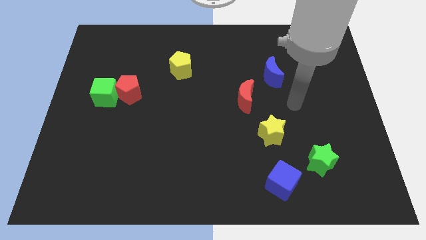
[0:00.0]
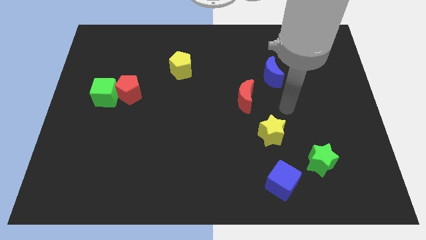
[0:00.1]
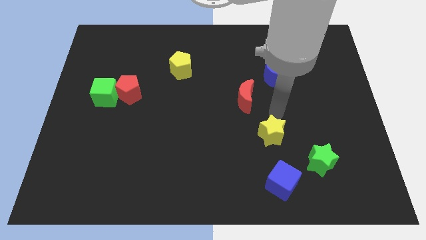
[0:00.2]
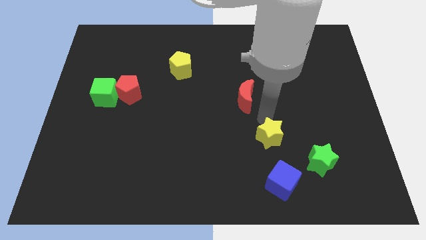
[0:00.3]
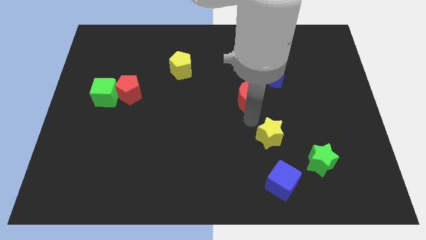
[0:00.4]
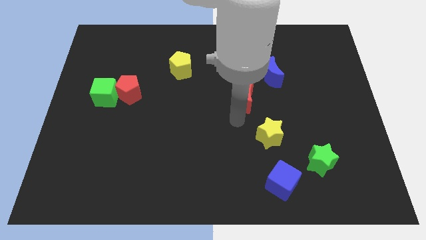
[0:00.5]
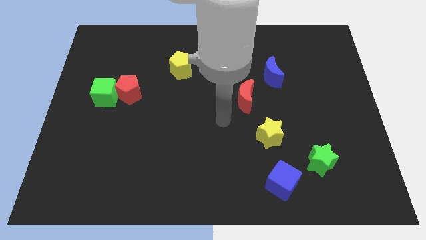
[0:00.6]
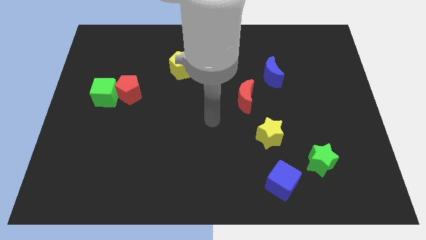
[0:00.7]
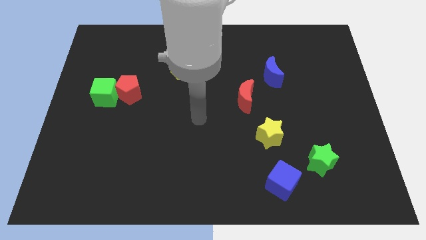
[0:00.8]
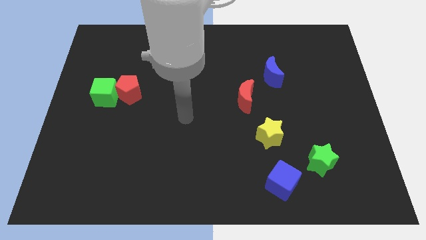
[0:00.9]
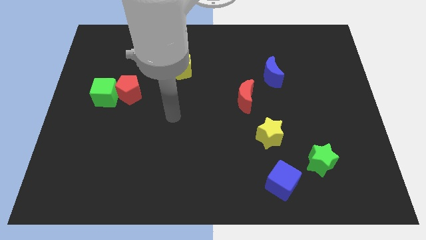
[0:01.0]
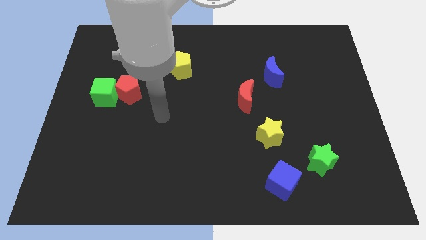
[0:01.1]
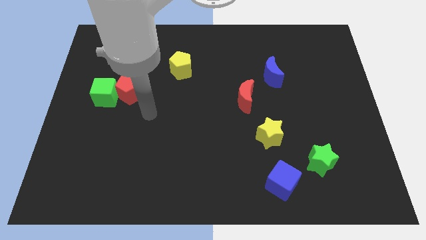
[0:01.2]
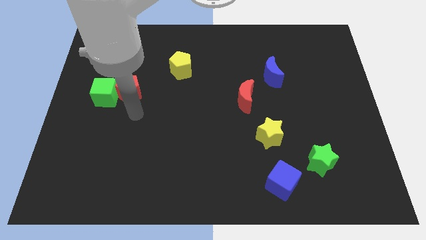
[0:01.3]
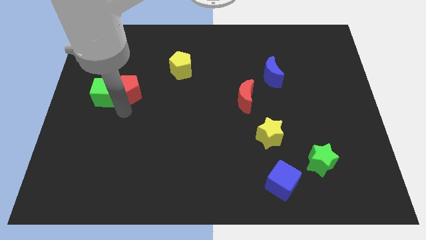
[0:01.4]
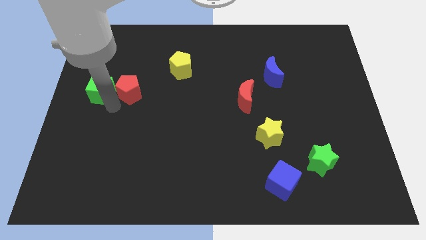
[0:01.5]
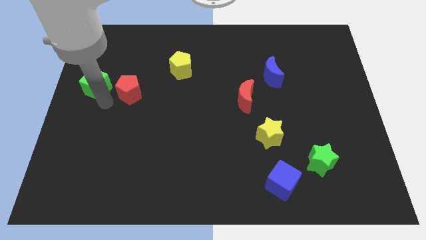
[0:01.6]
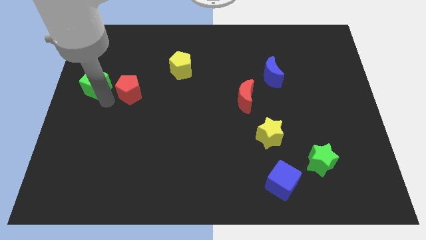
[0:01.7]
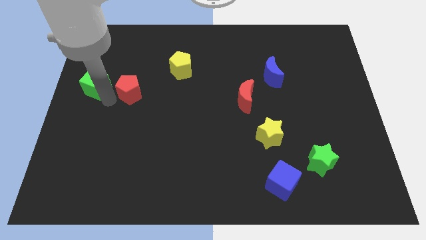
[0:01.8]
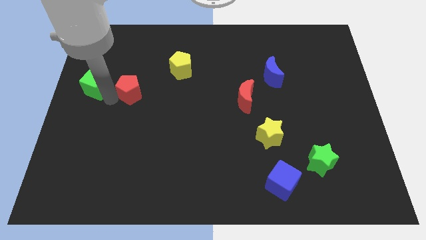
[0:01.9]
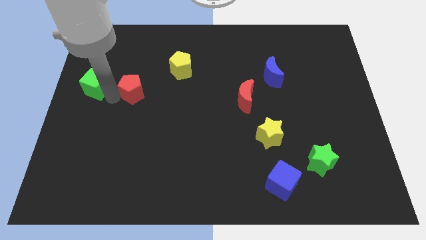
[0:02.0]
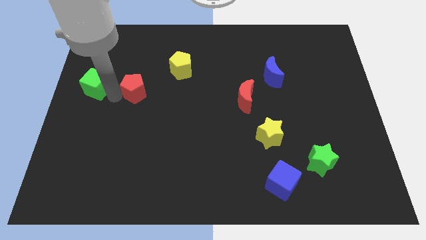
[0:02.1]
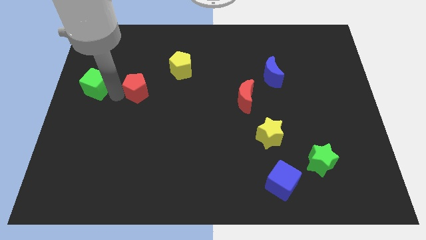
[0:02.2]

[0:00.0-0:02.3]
pull the red pentagon apart from the green cube

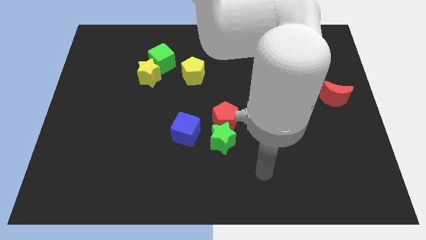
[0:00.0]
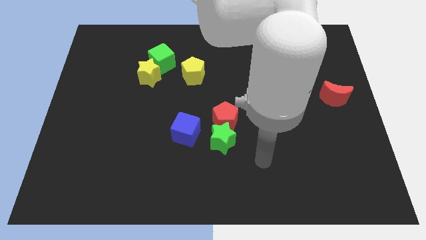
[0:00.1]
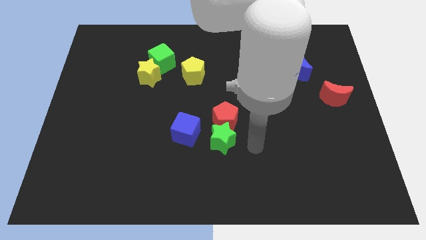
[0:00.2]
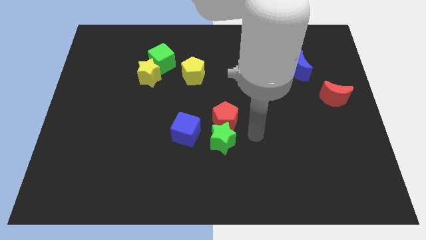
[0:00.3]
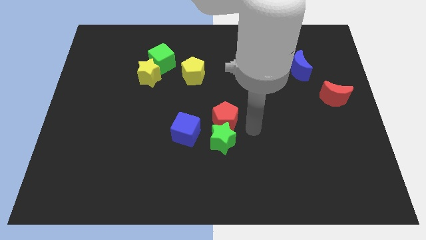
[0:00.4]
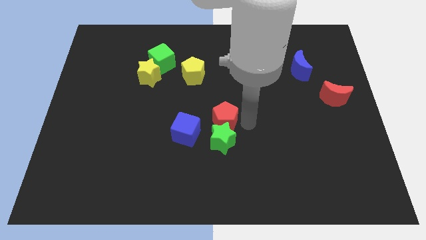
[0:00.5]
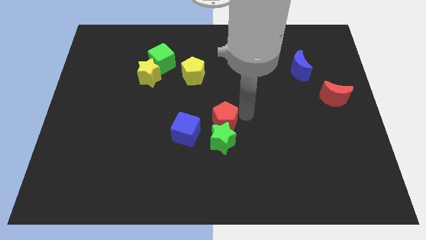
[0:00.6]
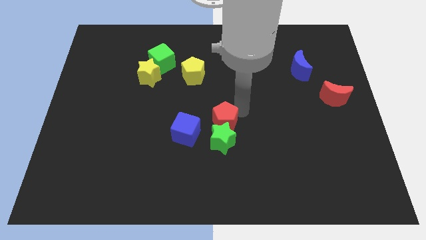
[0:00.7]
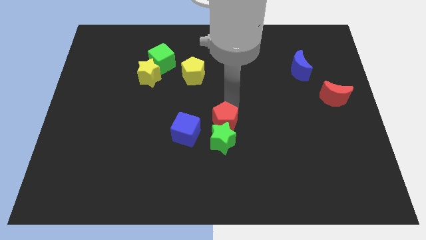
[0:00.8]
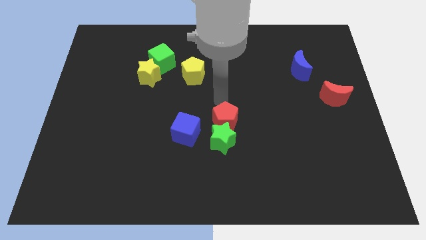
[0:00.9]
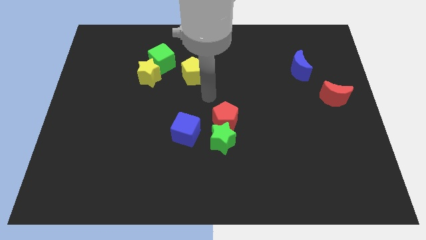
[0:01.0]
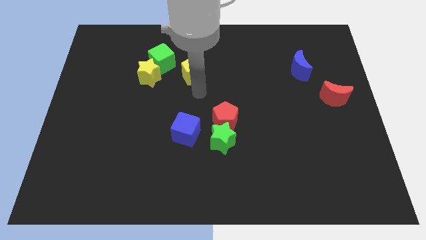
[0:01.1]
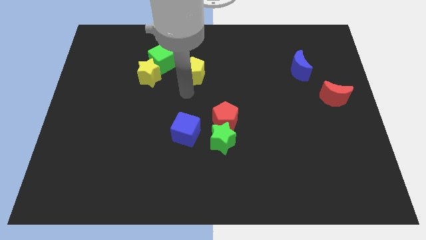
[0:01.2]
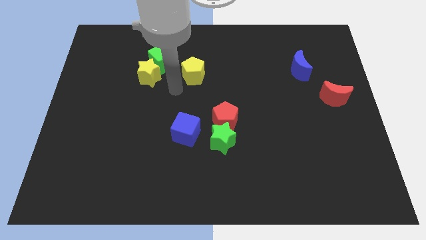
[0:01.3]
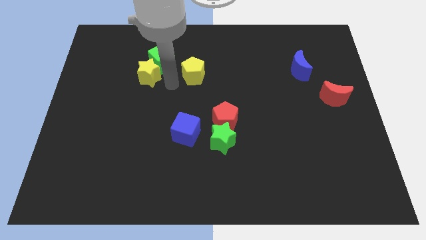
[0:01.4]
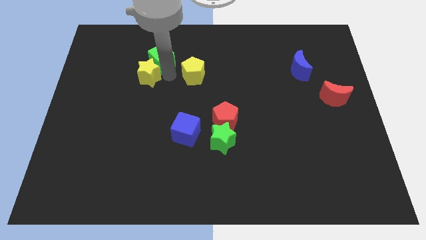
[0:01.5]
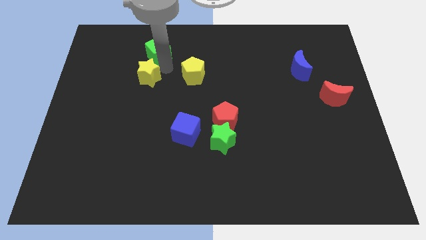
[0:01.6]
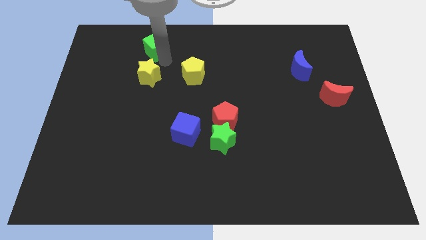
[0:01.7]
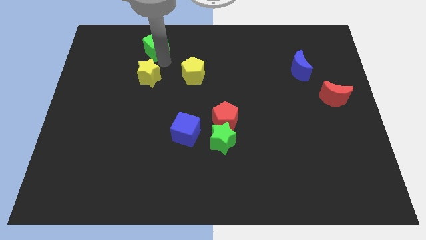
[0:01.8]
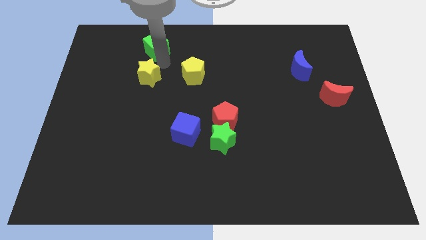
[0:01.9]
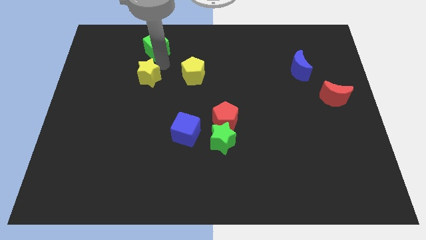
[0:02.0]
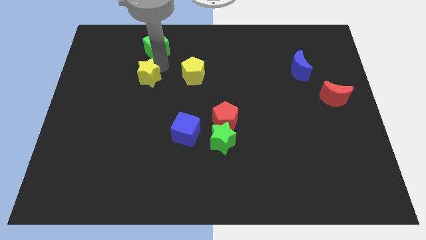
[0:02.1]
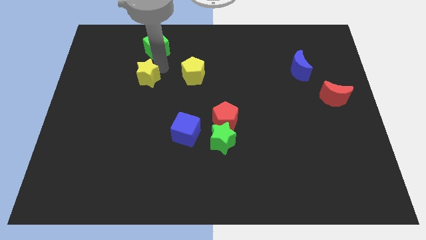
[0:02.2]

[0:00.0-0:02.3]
move the yellow star away from the green cube

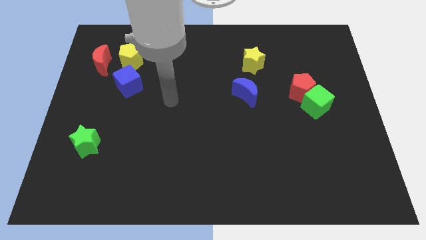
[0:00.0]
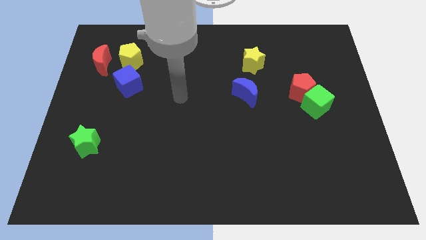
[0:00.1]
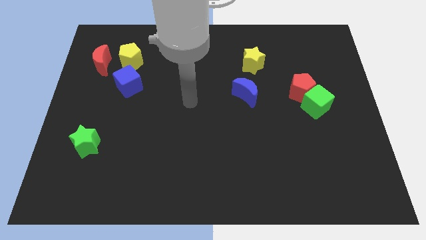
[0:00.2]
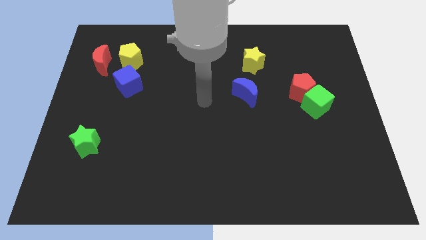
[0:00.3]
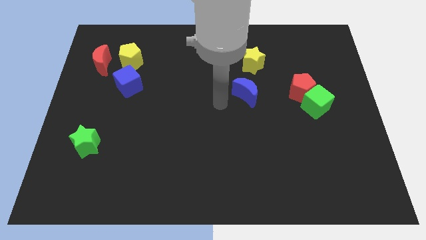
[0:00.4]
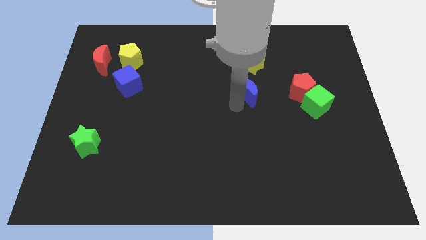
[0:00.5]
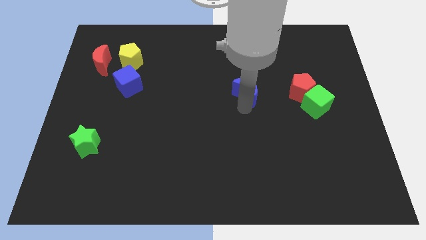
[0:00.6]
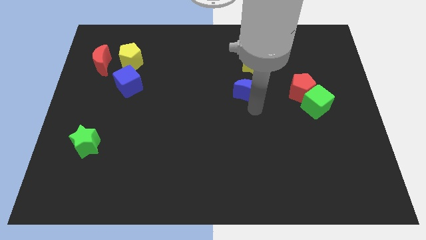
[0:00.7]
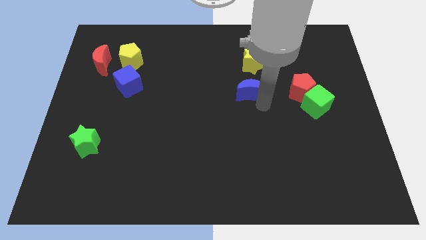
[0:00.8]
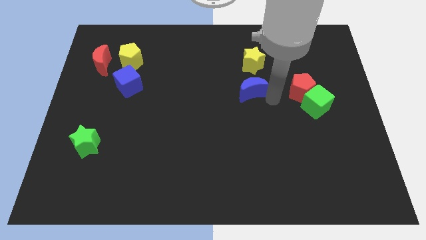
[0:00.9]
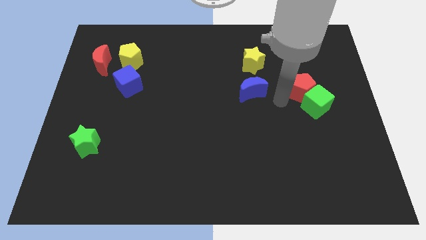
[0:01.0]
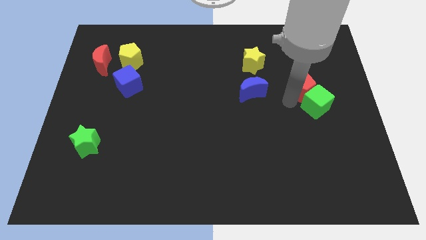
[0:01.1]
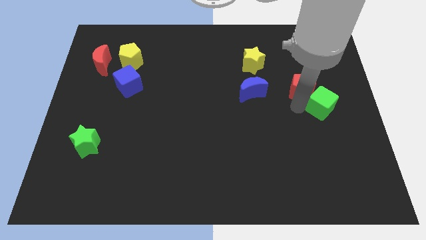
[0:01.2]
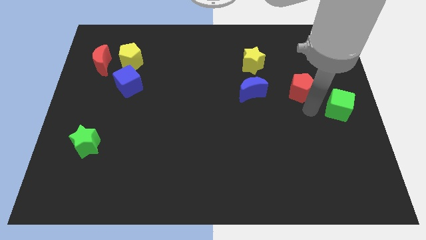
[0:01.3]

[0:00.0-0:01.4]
separate the red pentagon from the green cube

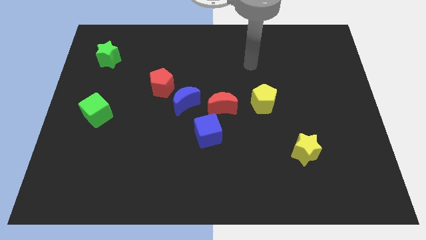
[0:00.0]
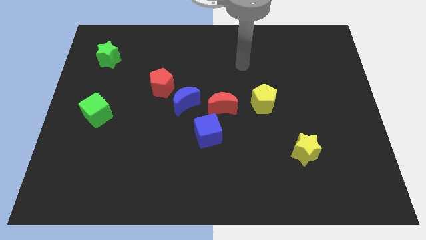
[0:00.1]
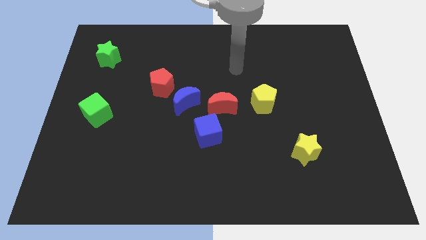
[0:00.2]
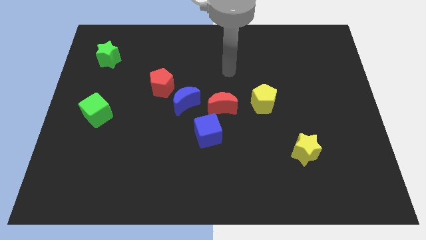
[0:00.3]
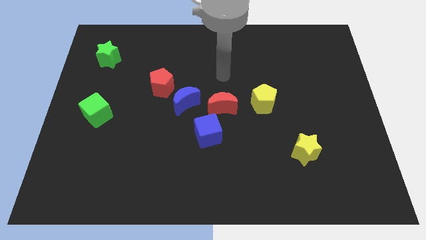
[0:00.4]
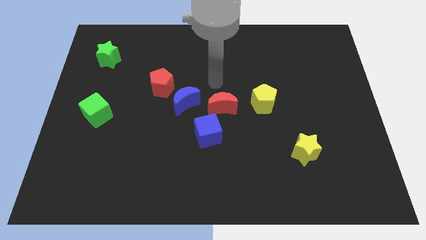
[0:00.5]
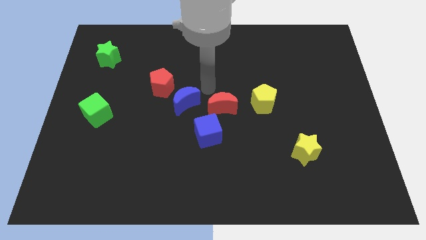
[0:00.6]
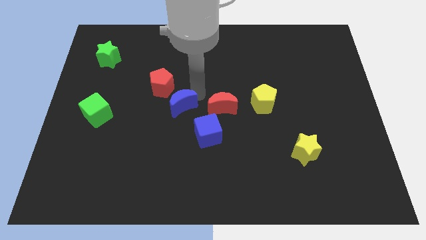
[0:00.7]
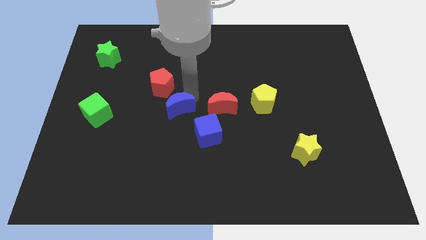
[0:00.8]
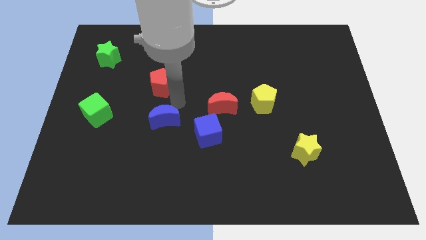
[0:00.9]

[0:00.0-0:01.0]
pull the red pentagon apart from the blue moon

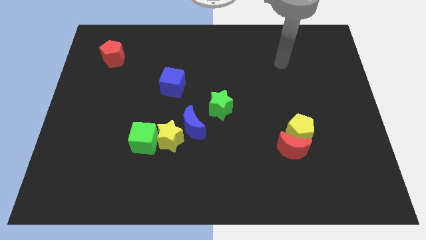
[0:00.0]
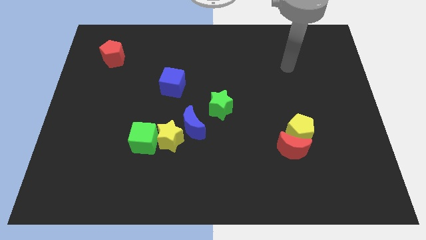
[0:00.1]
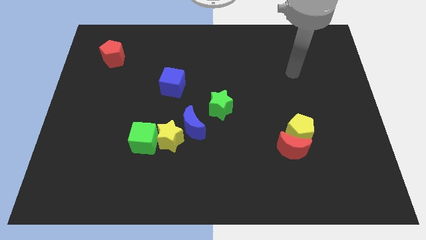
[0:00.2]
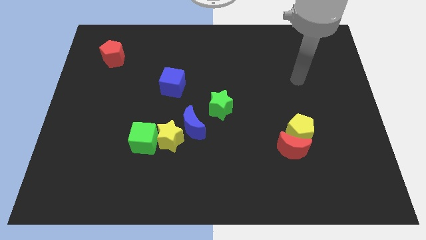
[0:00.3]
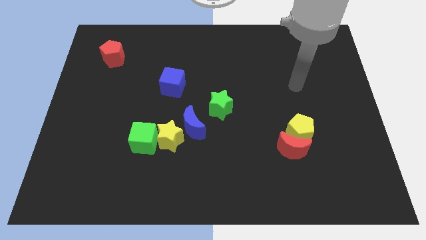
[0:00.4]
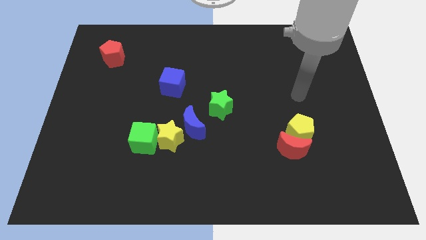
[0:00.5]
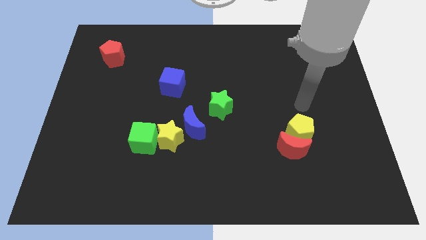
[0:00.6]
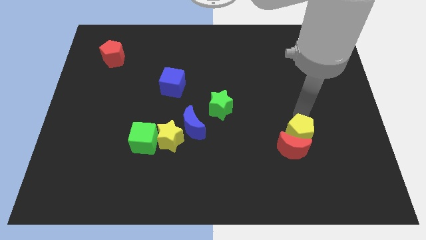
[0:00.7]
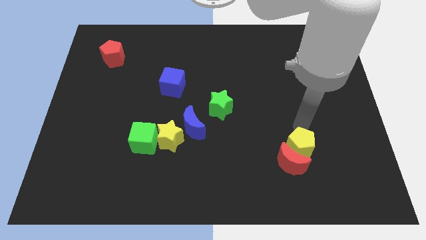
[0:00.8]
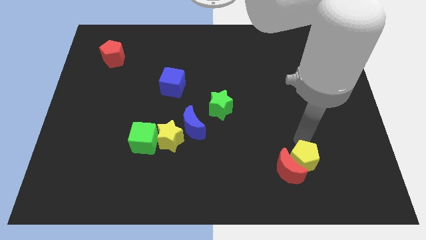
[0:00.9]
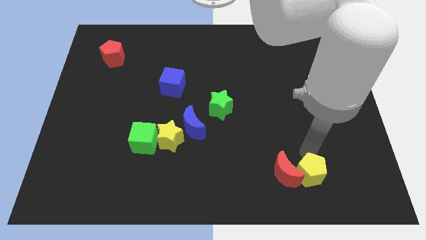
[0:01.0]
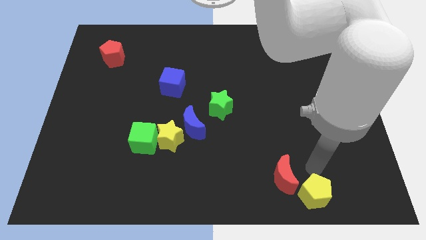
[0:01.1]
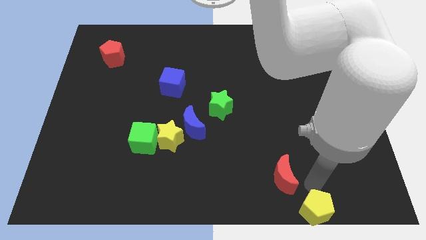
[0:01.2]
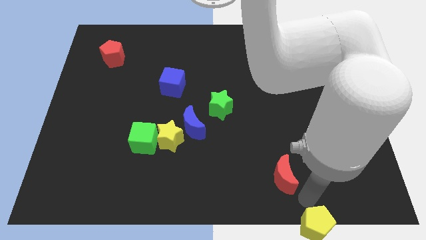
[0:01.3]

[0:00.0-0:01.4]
separate the red moon from the yellow pentagon

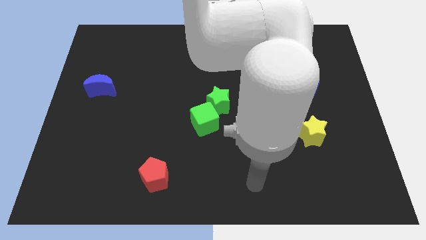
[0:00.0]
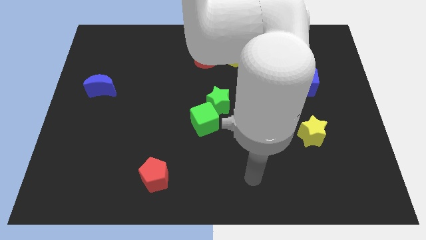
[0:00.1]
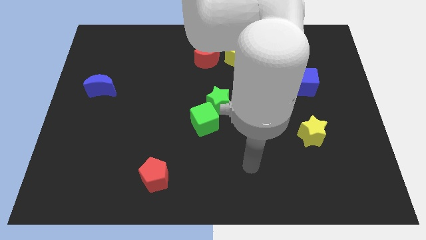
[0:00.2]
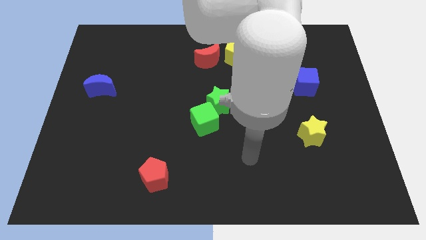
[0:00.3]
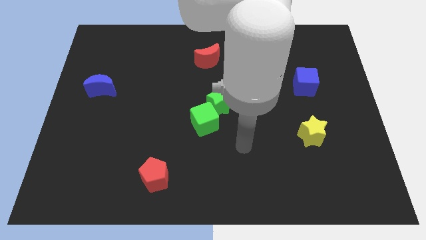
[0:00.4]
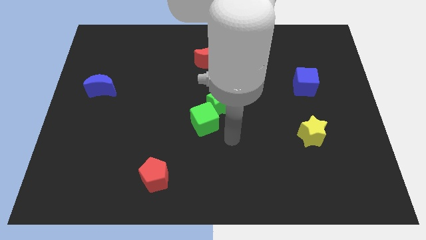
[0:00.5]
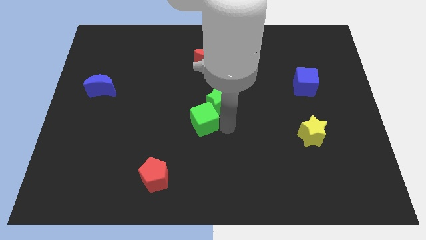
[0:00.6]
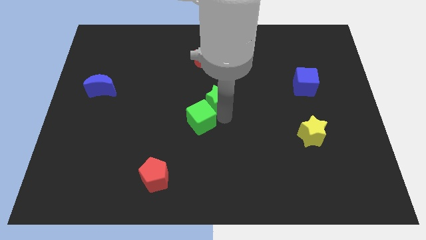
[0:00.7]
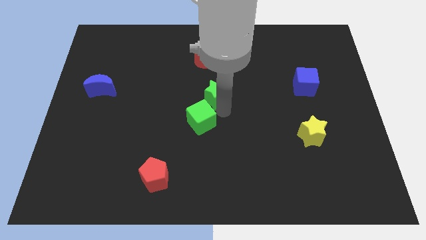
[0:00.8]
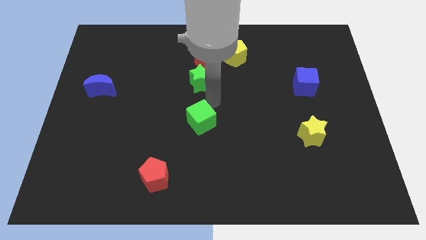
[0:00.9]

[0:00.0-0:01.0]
separate the green cube from the green star
